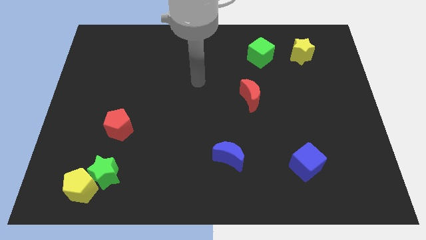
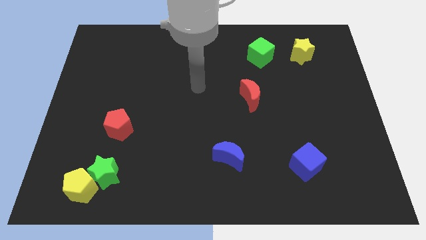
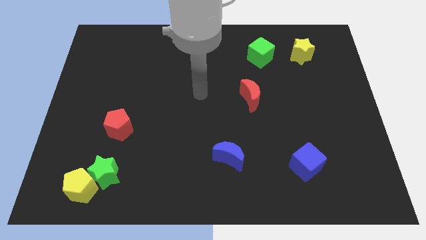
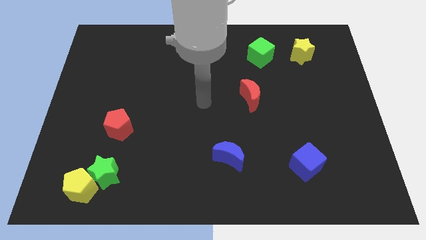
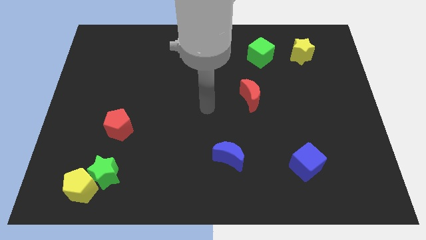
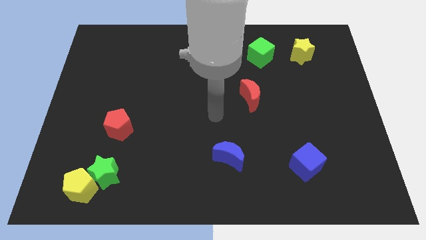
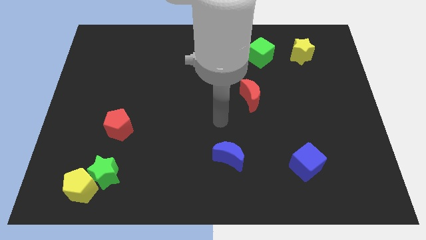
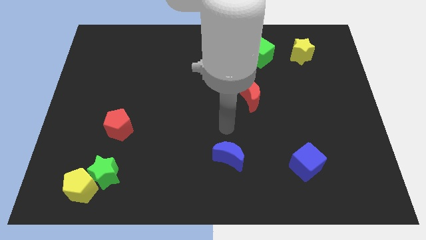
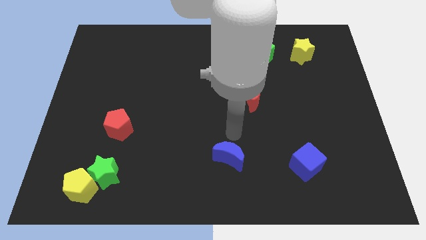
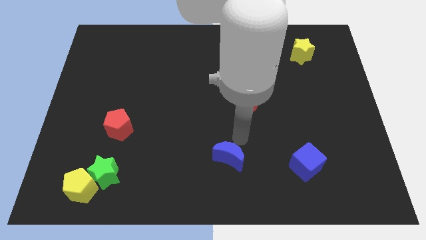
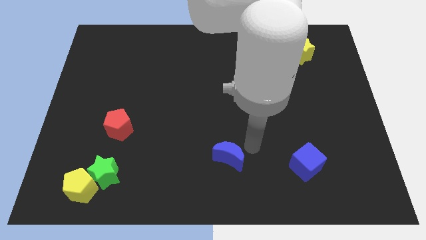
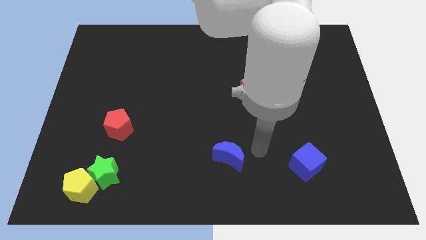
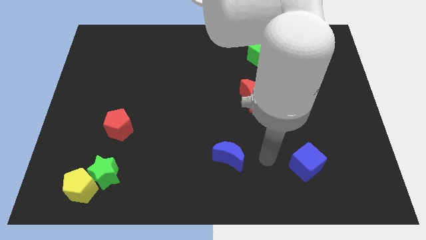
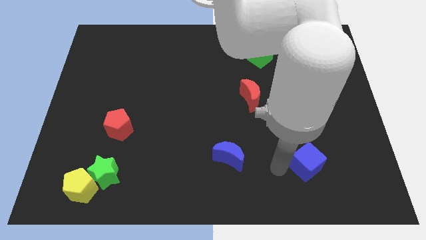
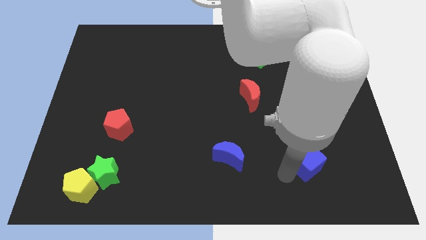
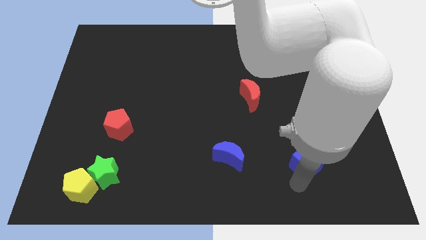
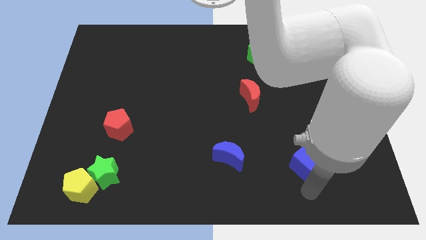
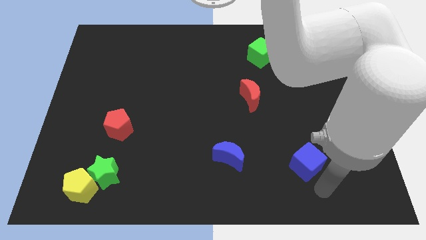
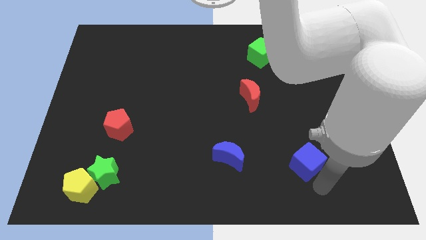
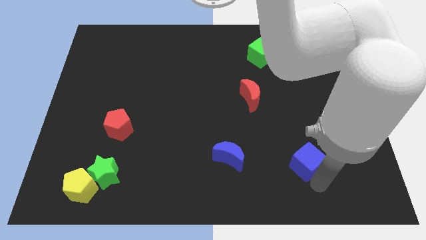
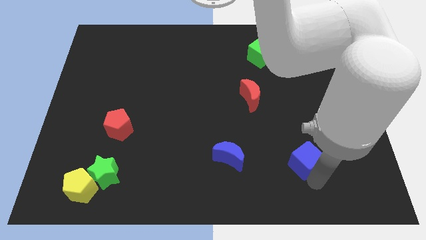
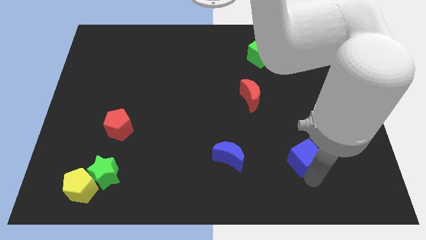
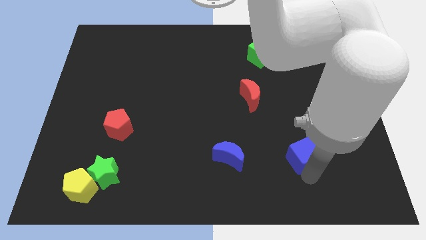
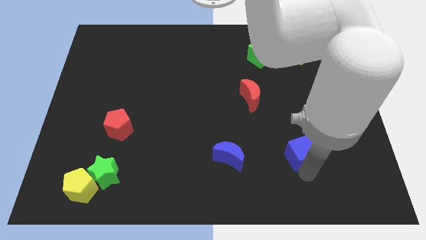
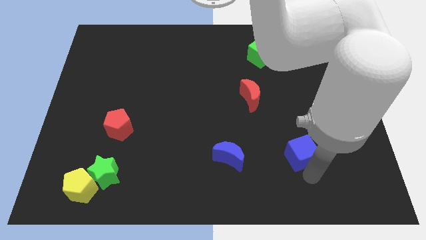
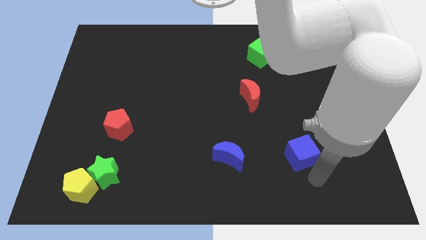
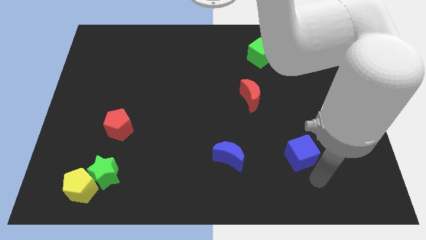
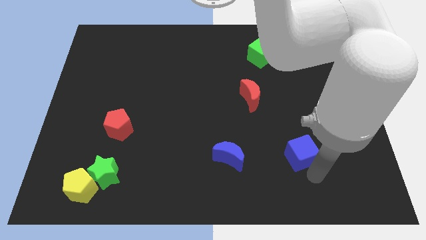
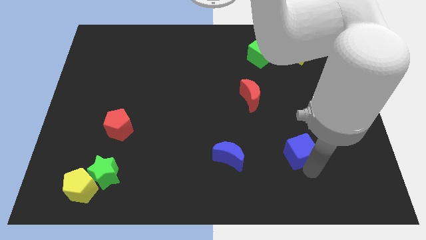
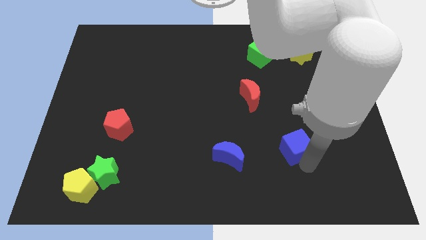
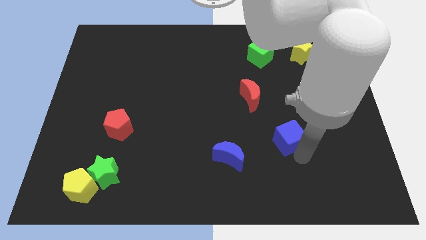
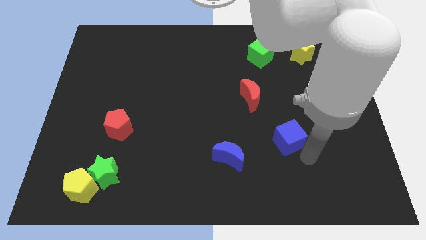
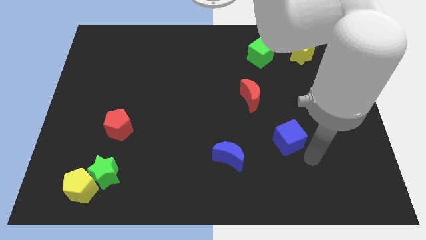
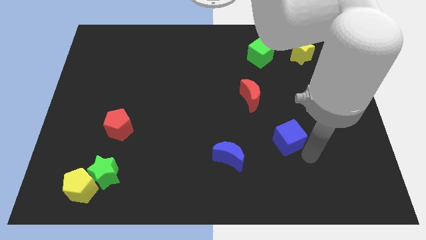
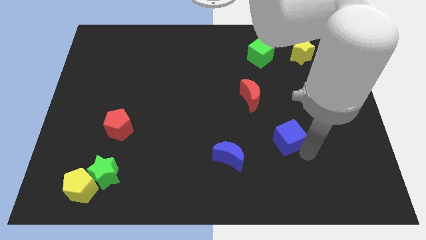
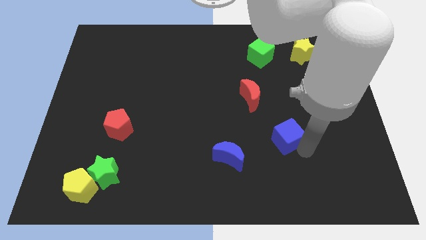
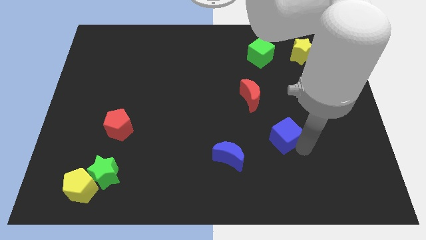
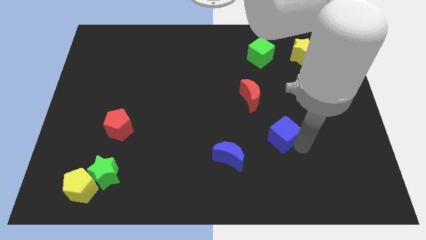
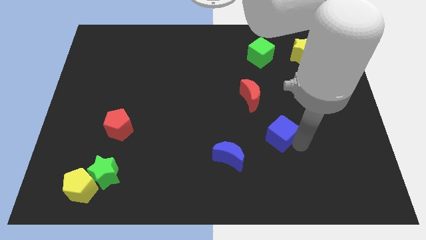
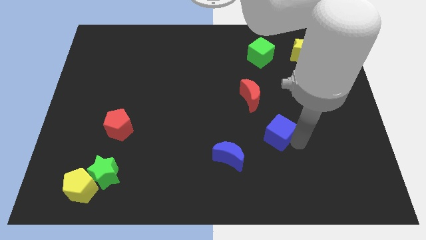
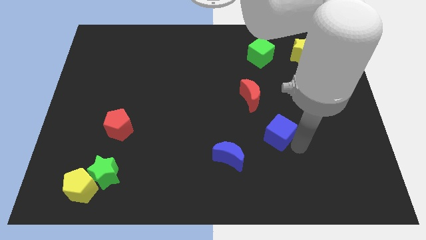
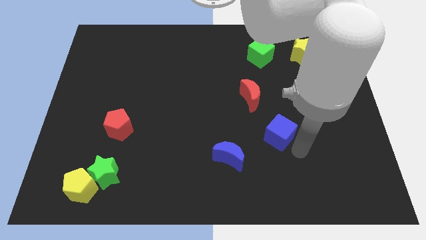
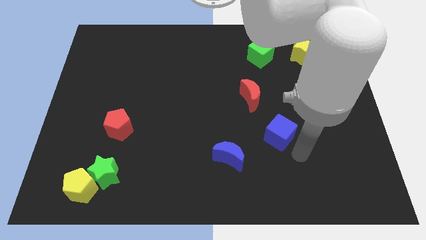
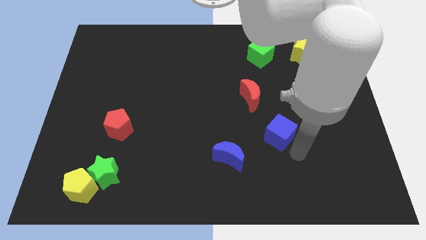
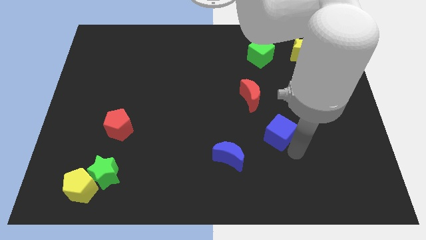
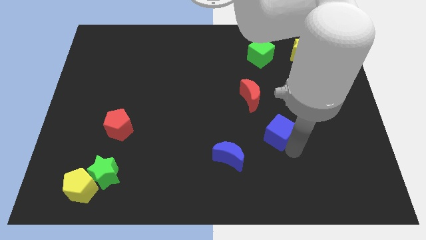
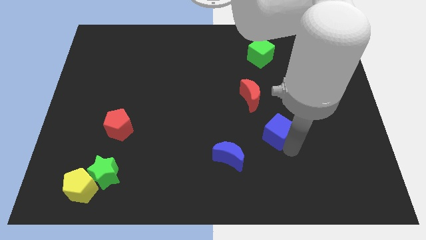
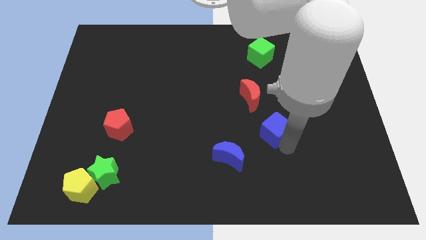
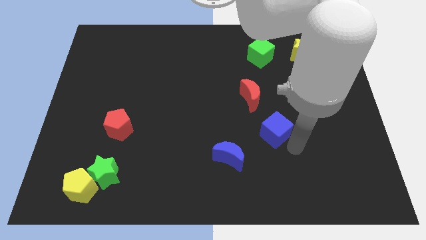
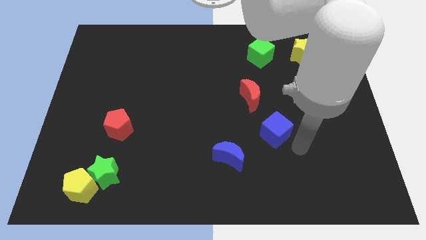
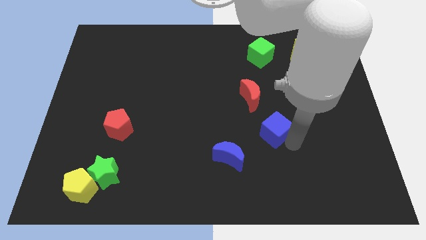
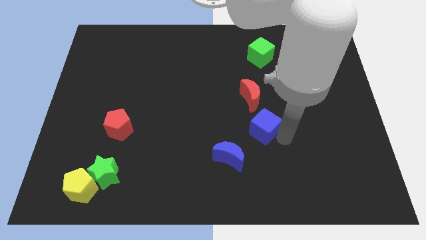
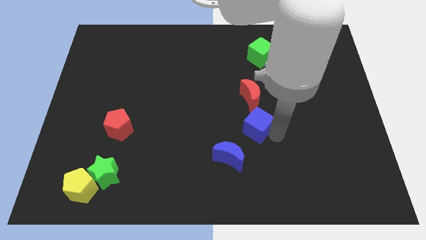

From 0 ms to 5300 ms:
push the blue cube to the center of the board

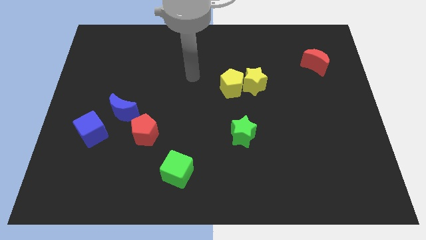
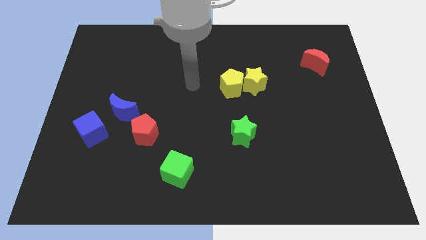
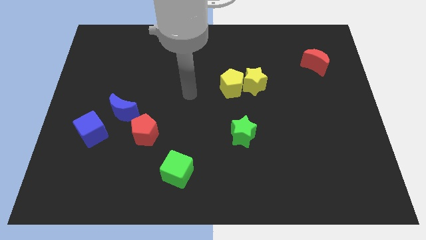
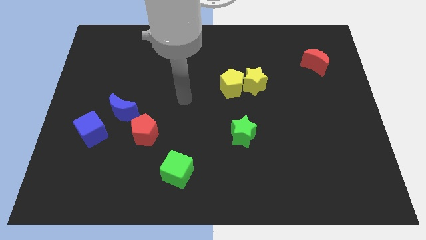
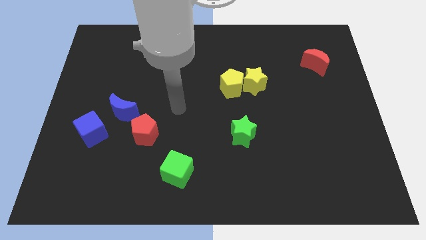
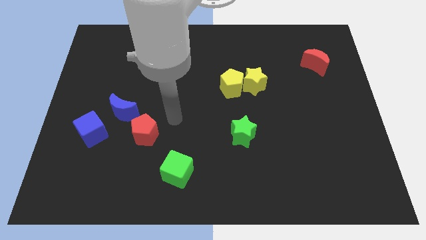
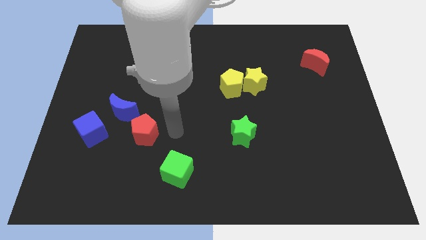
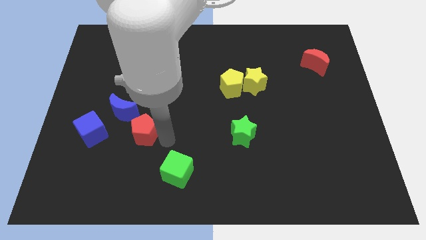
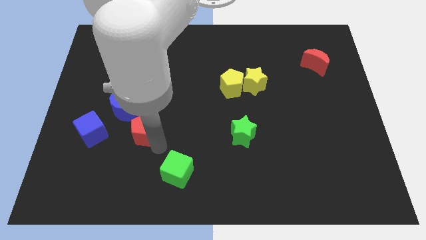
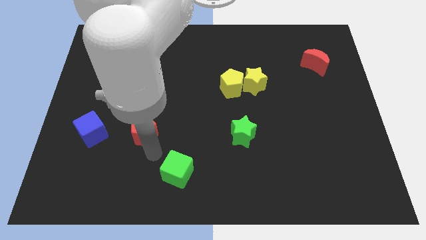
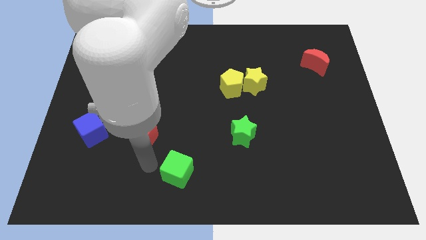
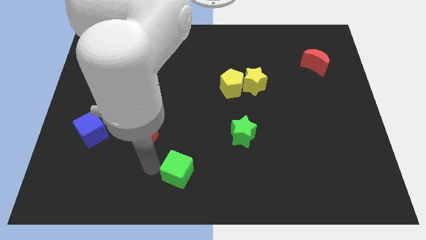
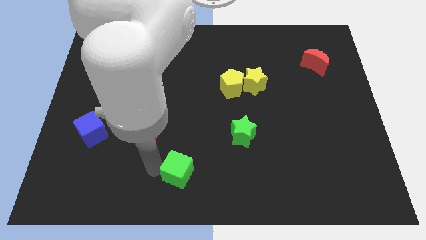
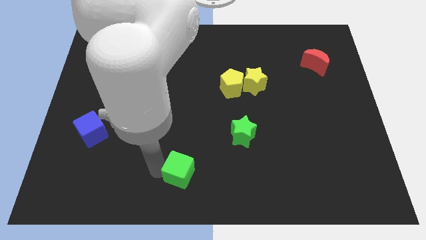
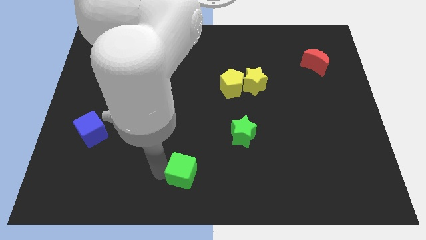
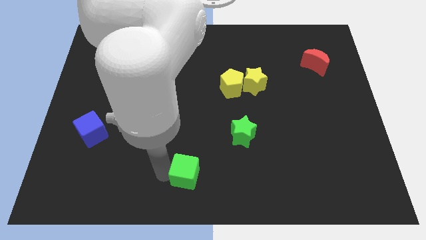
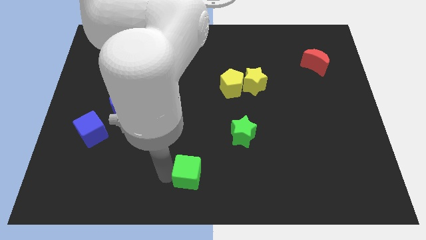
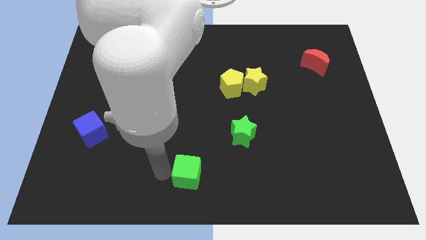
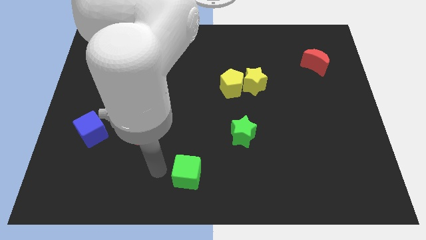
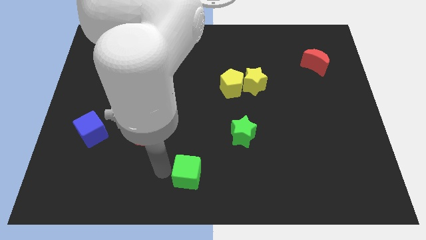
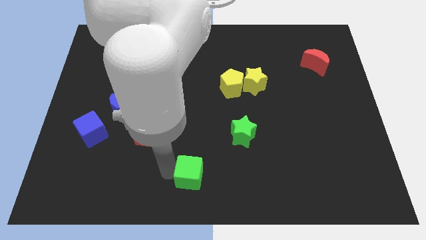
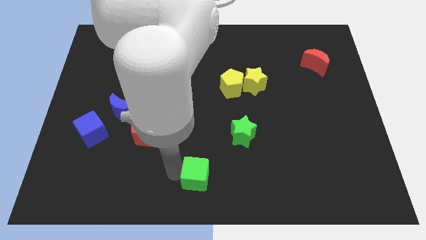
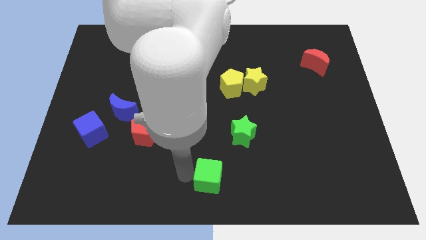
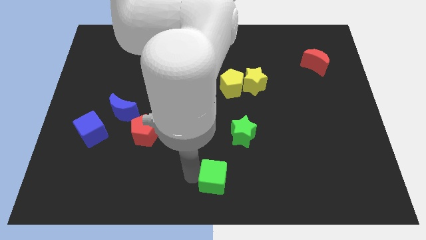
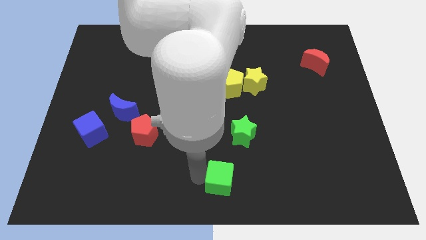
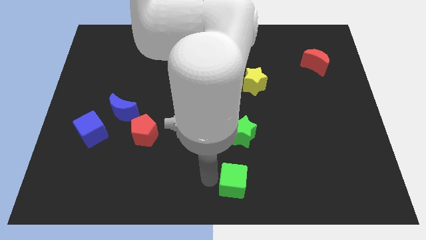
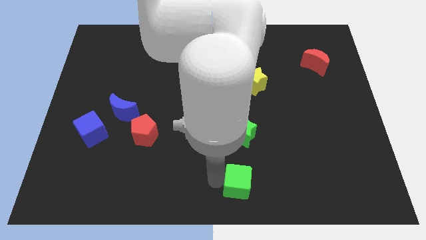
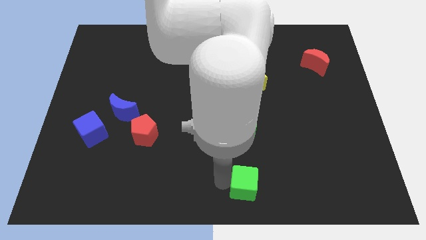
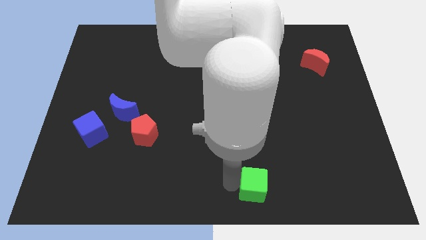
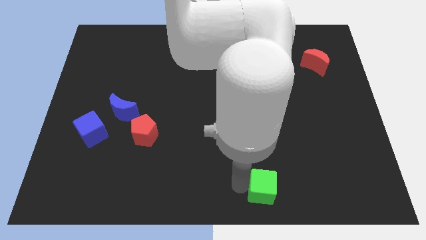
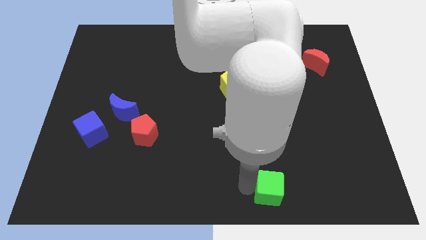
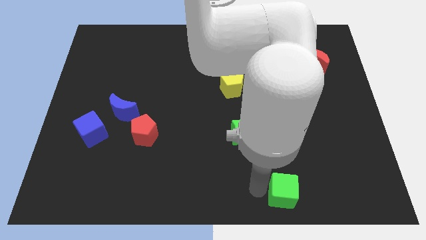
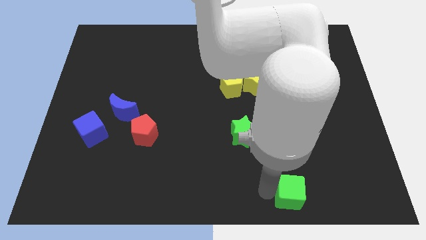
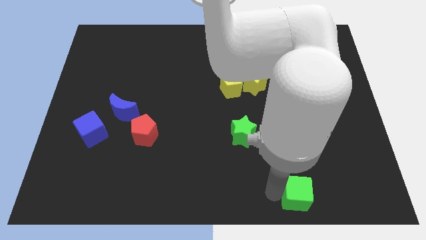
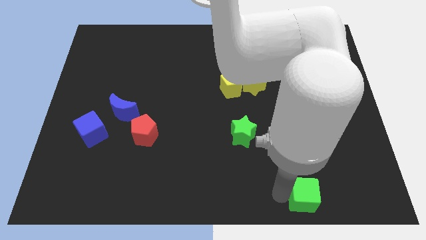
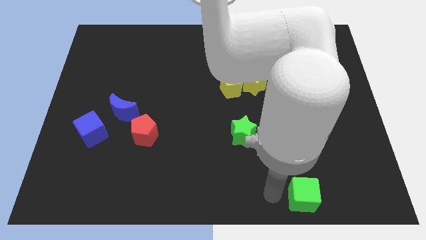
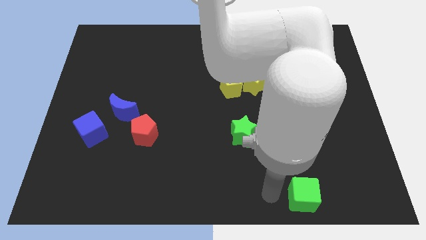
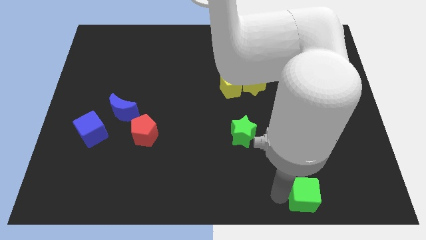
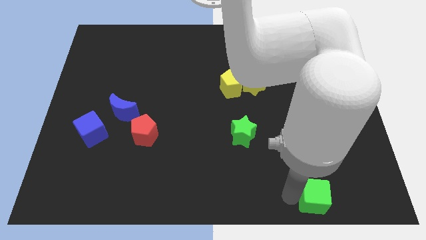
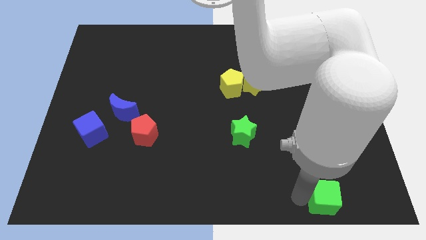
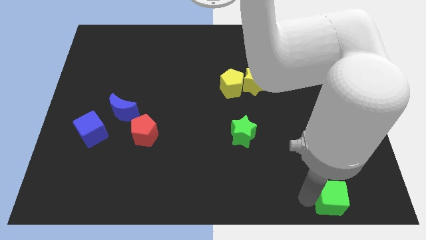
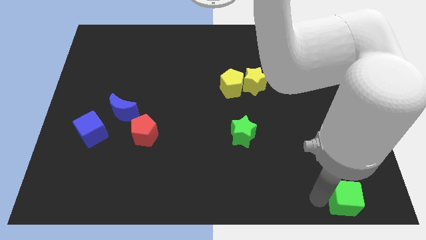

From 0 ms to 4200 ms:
push the green cube to the bottom right corner
